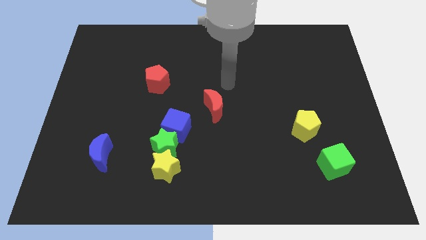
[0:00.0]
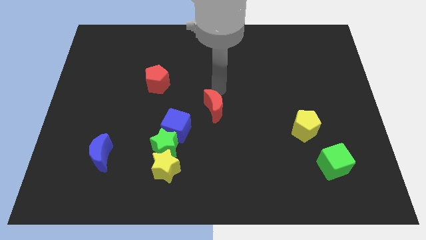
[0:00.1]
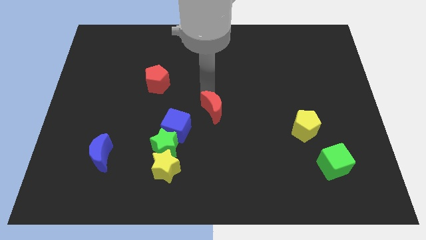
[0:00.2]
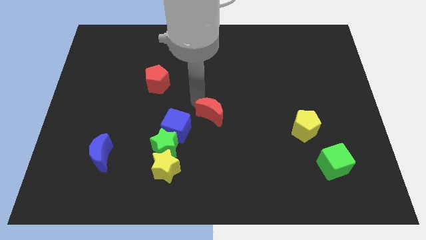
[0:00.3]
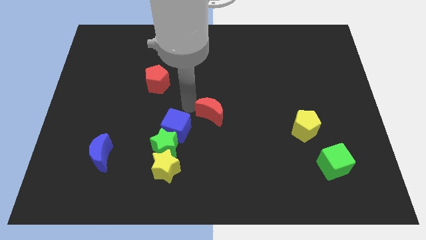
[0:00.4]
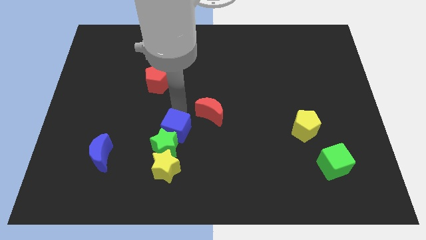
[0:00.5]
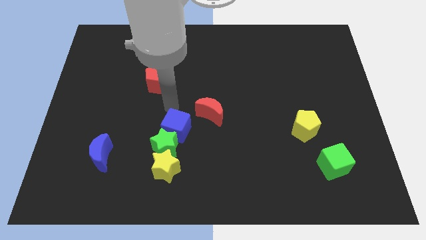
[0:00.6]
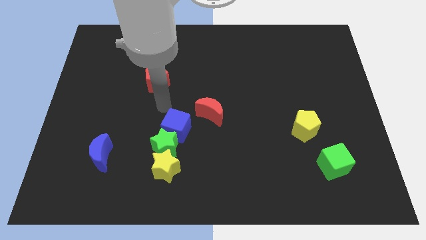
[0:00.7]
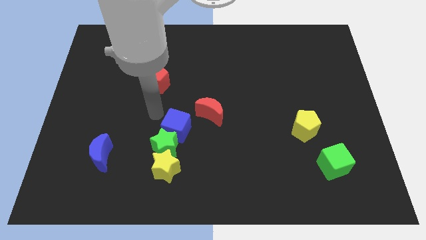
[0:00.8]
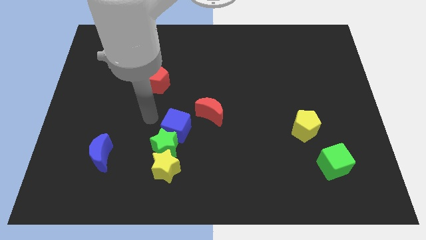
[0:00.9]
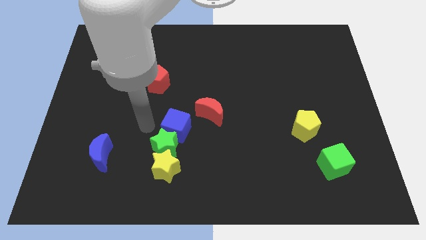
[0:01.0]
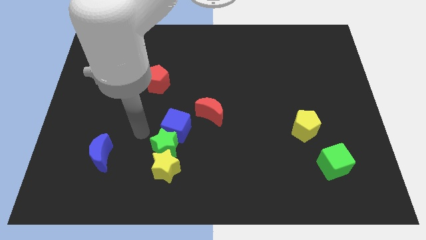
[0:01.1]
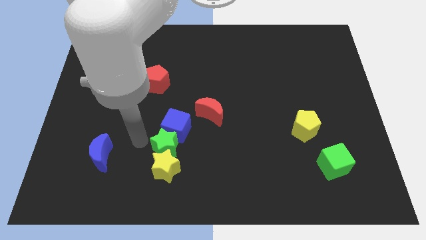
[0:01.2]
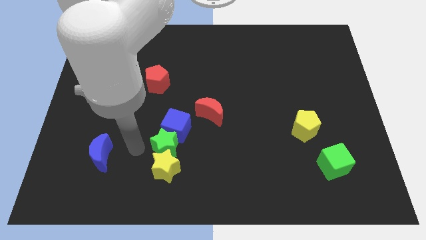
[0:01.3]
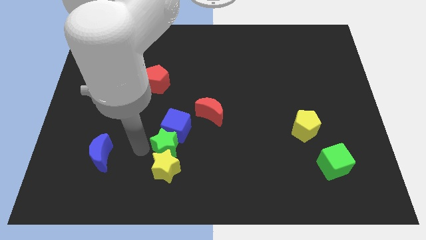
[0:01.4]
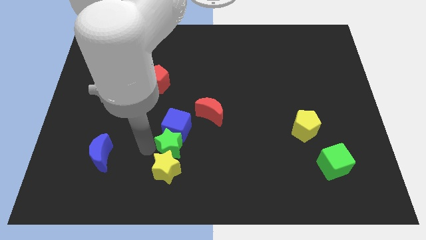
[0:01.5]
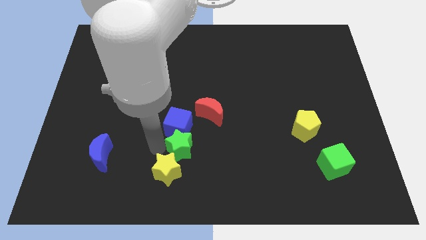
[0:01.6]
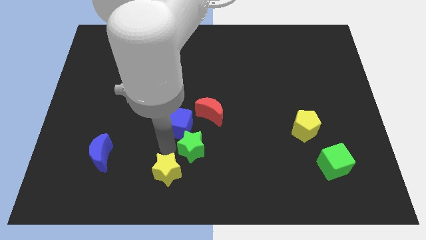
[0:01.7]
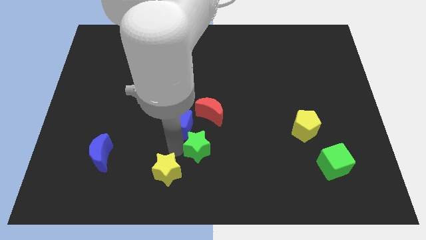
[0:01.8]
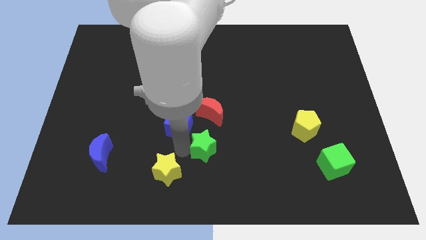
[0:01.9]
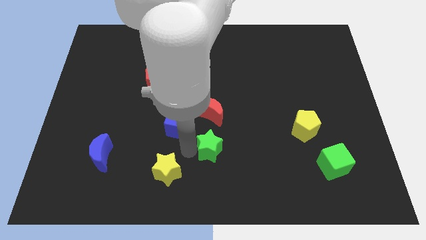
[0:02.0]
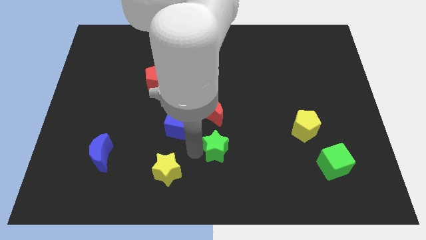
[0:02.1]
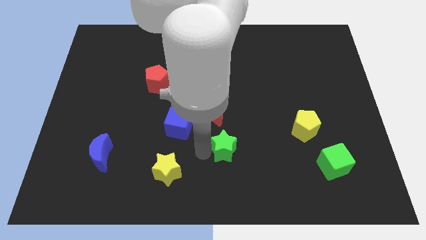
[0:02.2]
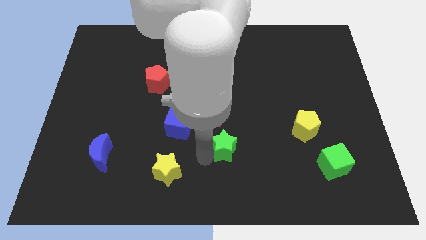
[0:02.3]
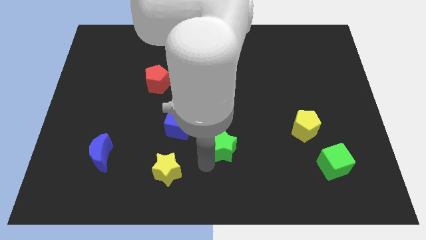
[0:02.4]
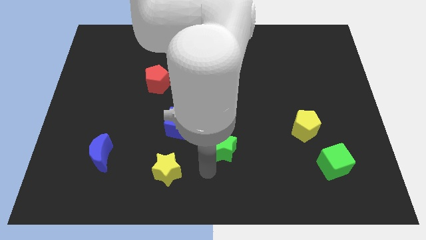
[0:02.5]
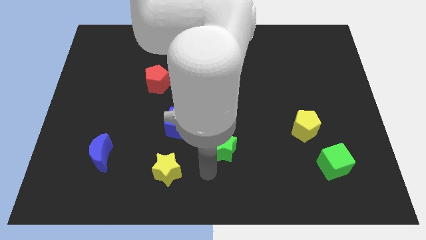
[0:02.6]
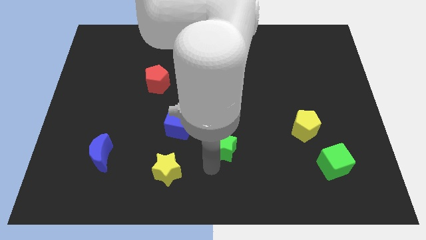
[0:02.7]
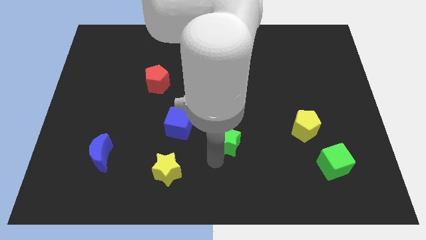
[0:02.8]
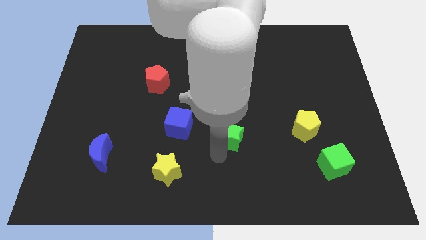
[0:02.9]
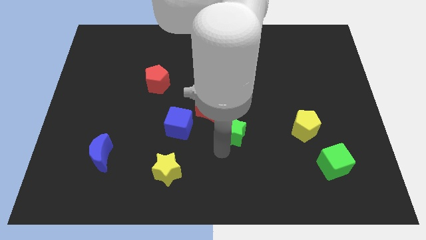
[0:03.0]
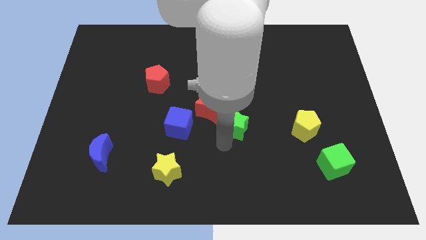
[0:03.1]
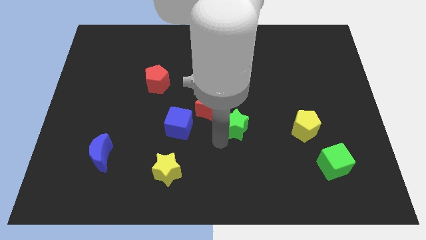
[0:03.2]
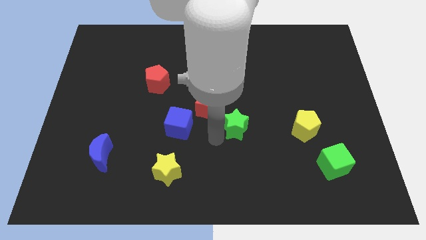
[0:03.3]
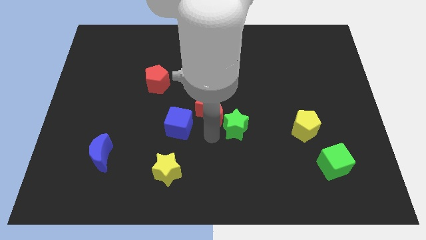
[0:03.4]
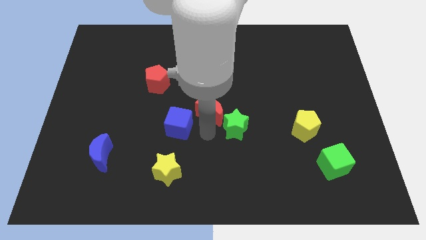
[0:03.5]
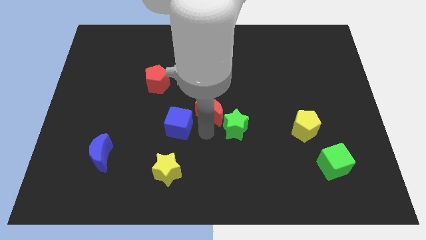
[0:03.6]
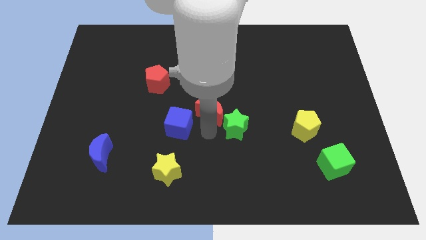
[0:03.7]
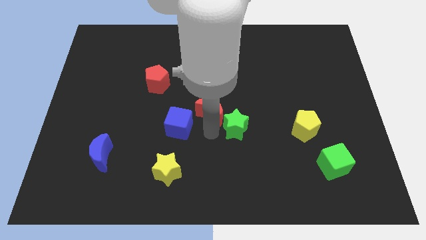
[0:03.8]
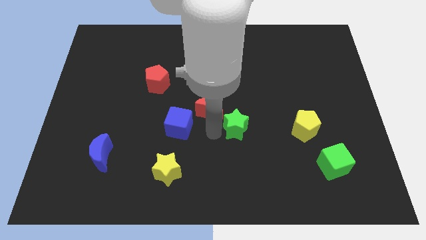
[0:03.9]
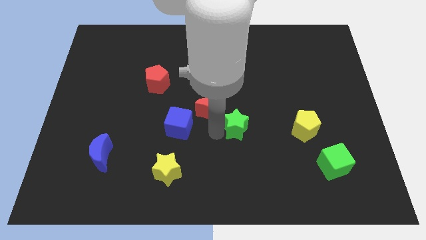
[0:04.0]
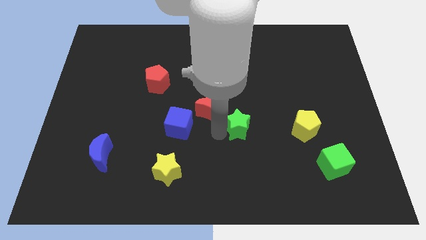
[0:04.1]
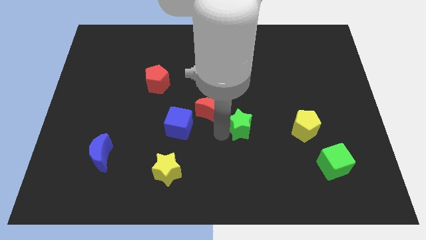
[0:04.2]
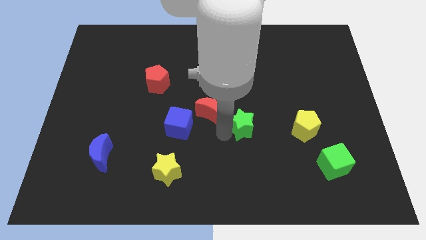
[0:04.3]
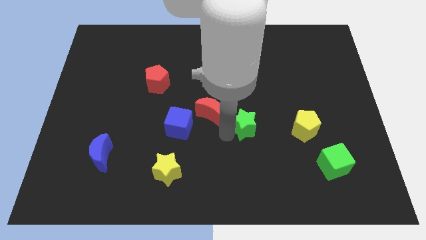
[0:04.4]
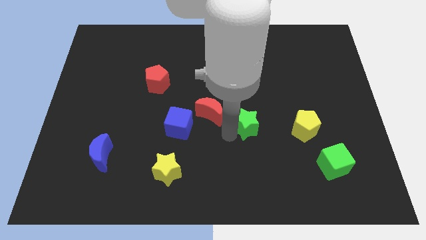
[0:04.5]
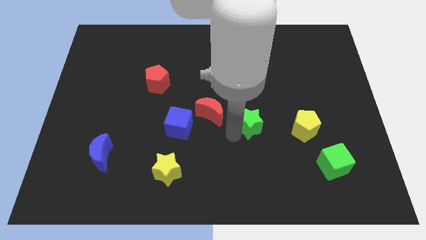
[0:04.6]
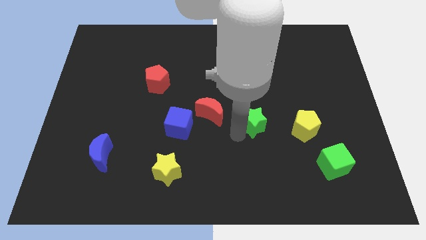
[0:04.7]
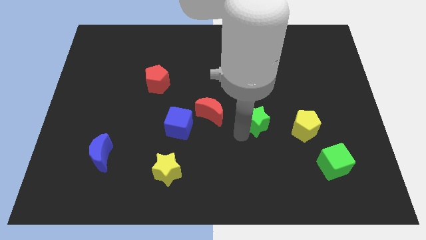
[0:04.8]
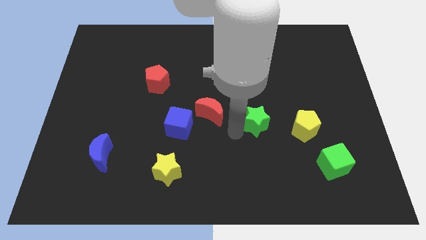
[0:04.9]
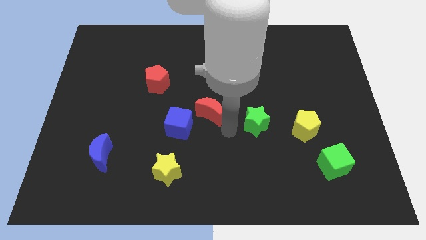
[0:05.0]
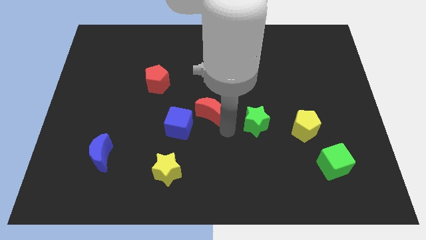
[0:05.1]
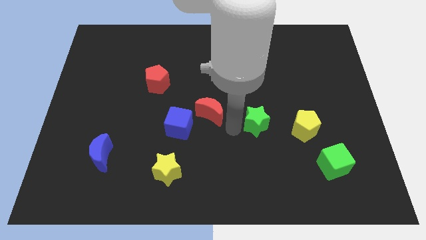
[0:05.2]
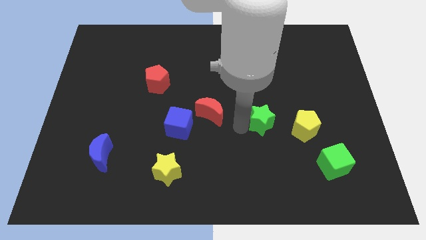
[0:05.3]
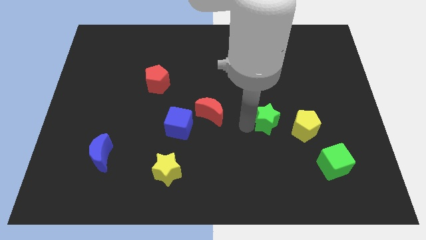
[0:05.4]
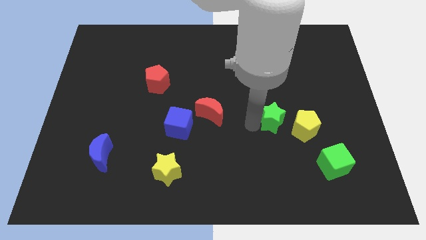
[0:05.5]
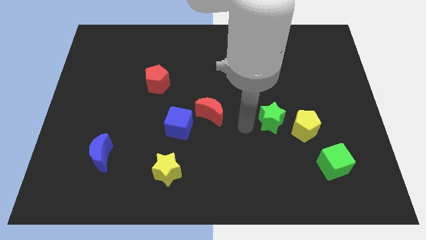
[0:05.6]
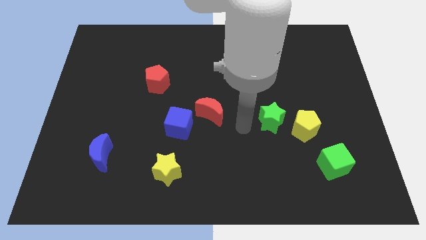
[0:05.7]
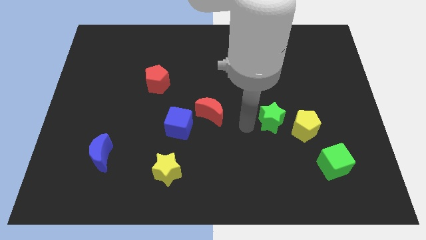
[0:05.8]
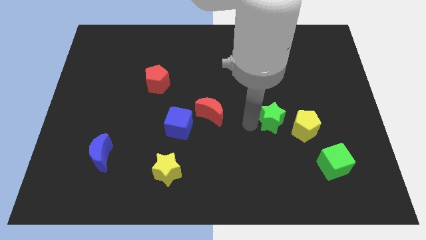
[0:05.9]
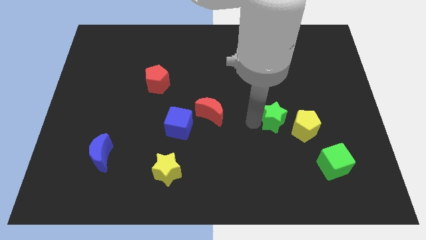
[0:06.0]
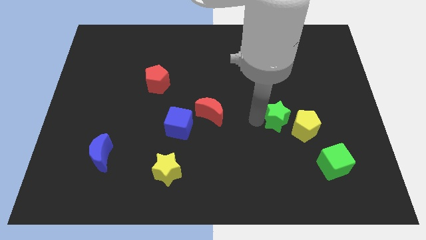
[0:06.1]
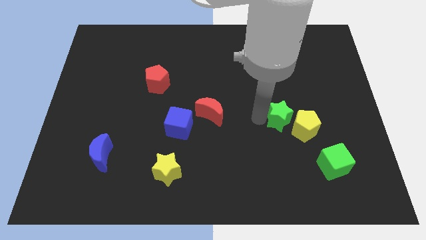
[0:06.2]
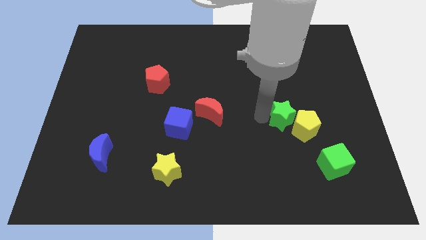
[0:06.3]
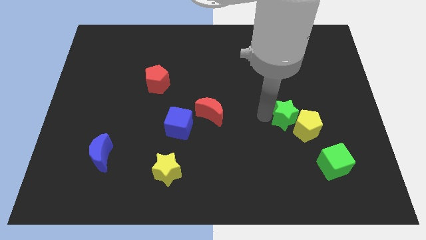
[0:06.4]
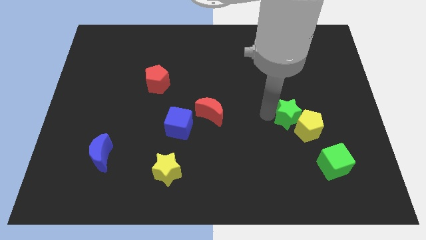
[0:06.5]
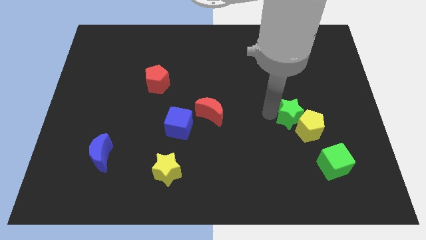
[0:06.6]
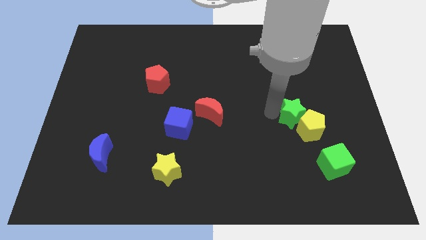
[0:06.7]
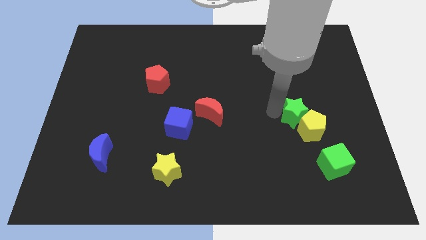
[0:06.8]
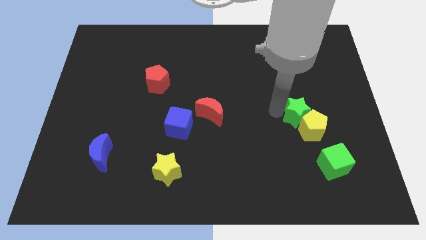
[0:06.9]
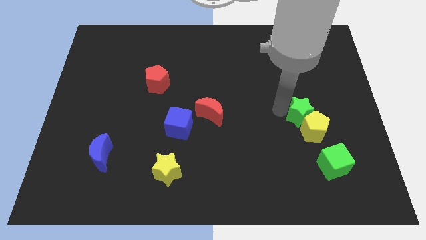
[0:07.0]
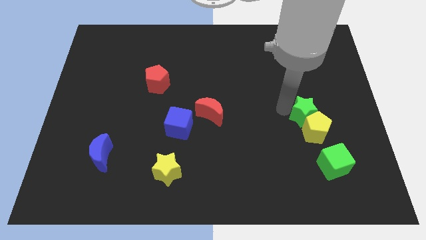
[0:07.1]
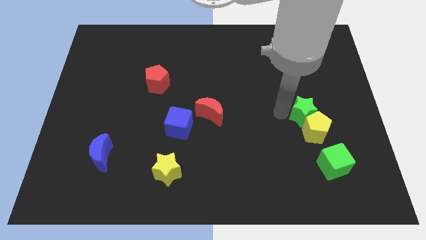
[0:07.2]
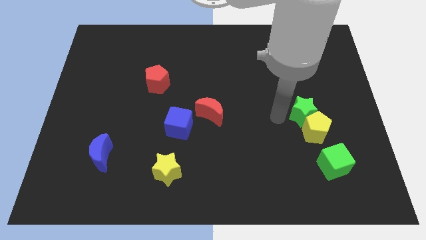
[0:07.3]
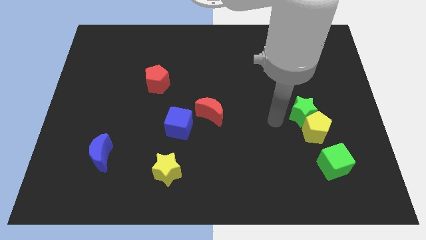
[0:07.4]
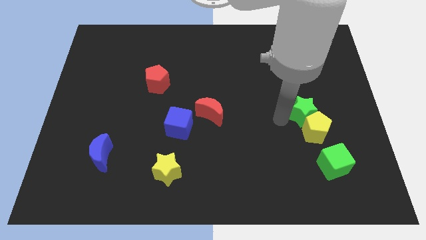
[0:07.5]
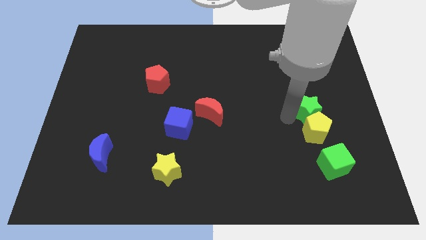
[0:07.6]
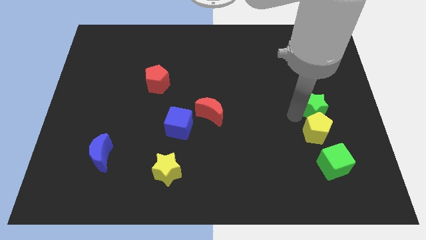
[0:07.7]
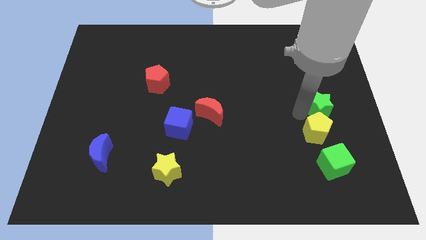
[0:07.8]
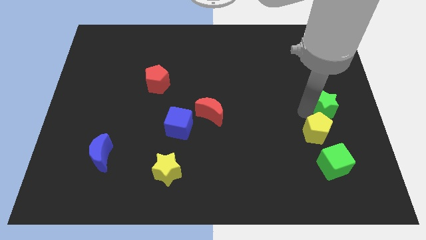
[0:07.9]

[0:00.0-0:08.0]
slide the green star to the center right
